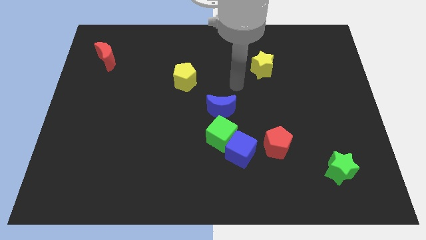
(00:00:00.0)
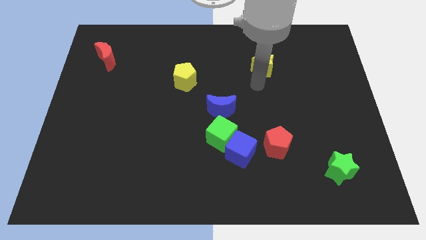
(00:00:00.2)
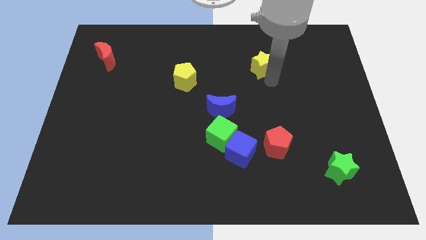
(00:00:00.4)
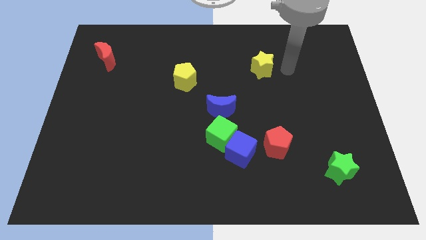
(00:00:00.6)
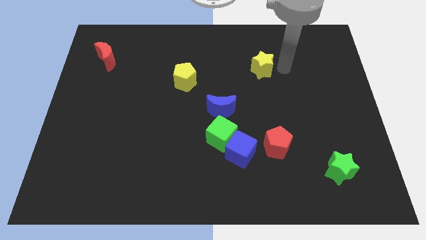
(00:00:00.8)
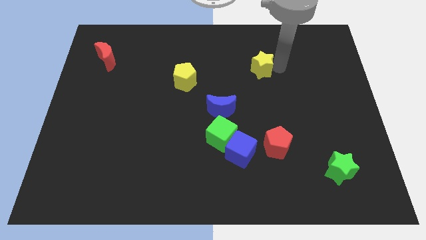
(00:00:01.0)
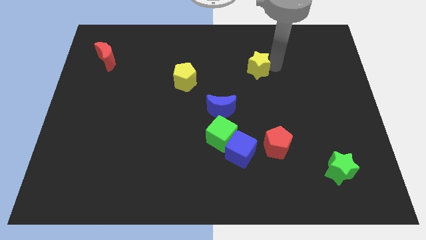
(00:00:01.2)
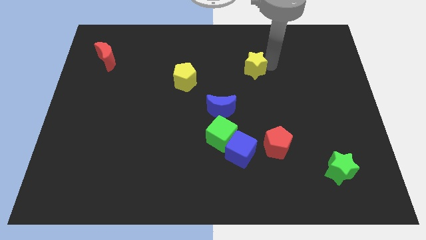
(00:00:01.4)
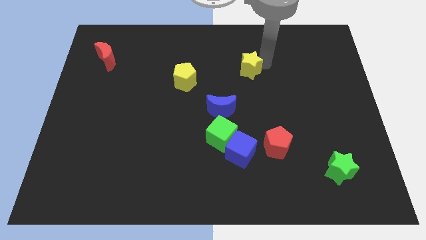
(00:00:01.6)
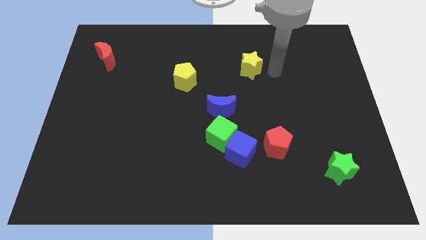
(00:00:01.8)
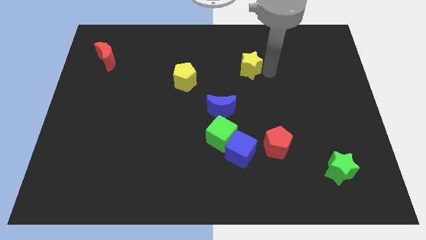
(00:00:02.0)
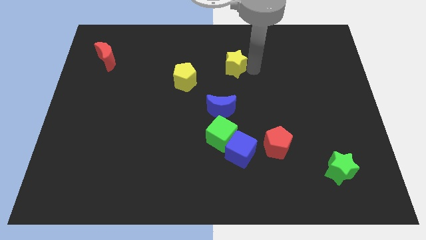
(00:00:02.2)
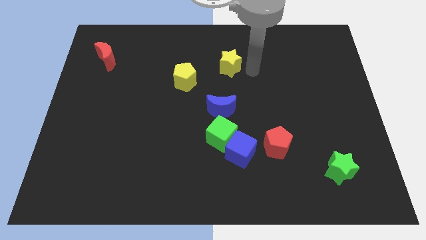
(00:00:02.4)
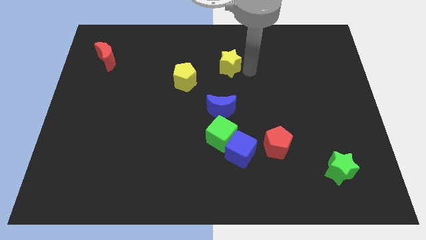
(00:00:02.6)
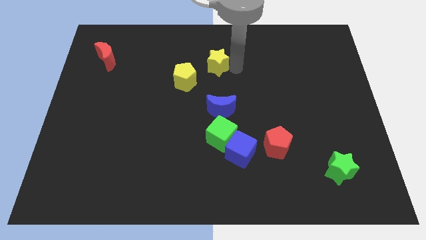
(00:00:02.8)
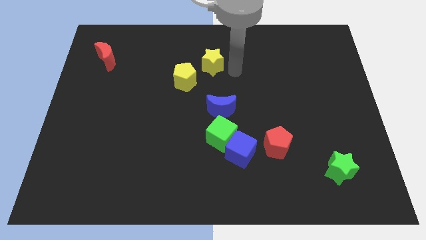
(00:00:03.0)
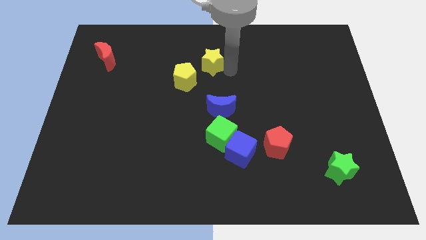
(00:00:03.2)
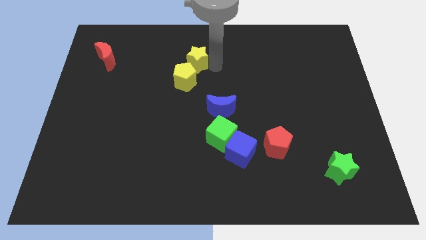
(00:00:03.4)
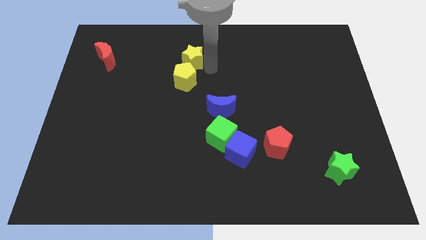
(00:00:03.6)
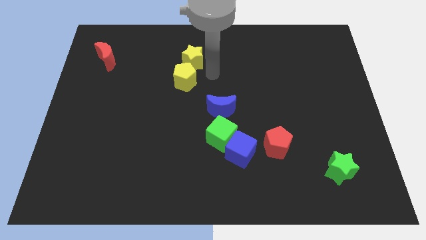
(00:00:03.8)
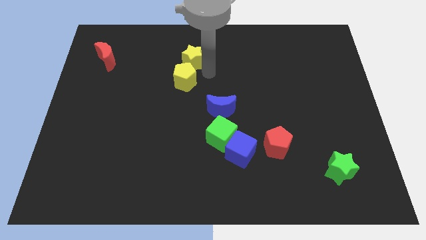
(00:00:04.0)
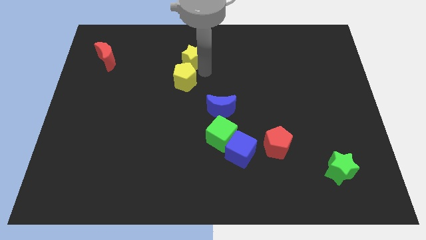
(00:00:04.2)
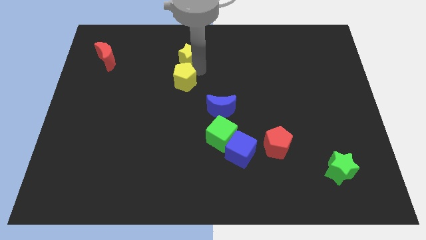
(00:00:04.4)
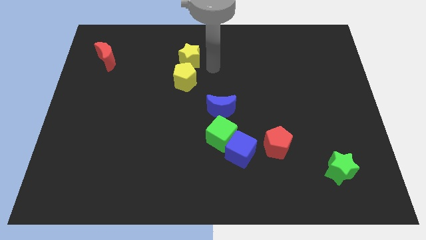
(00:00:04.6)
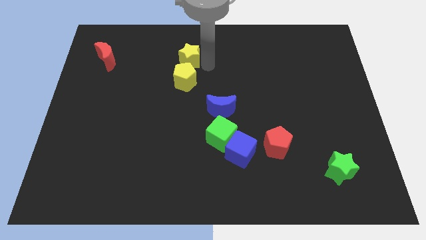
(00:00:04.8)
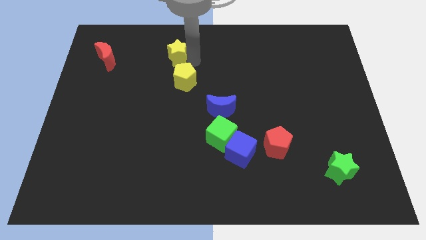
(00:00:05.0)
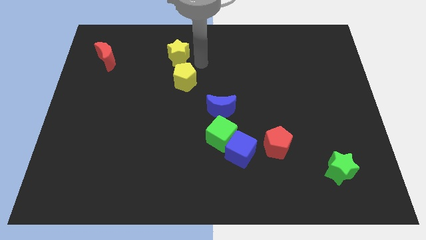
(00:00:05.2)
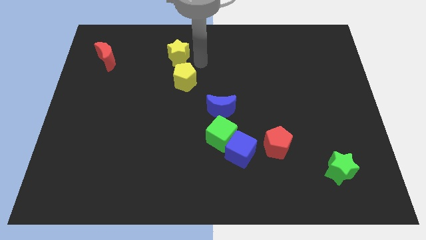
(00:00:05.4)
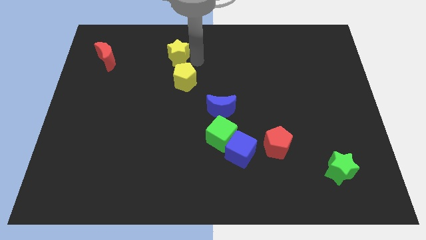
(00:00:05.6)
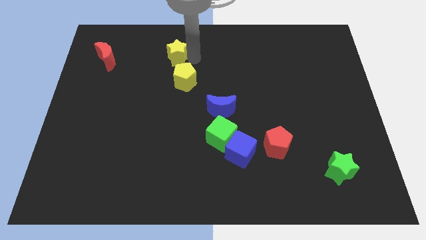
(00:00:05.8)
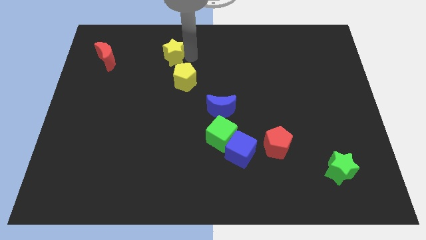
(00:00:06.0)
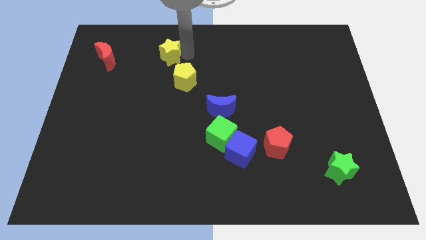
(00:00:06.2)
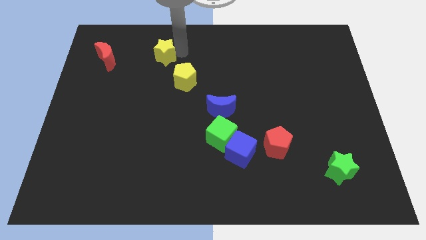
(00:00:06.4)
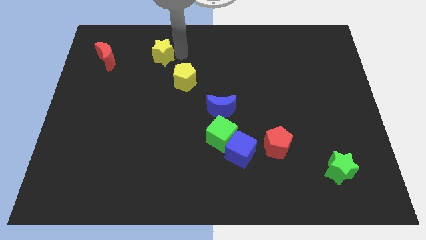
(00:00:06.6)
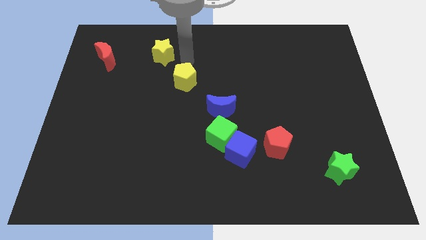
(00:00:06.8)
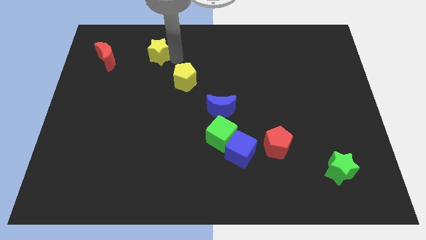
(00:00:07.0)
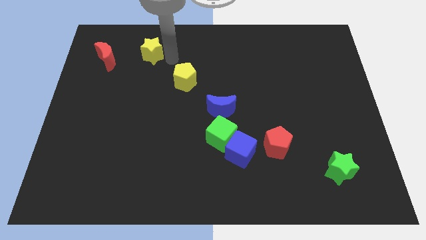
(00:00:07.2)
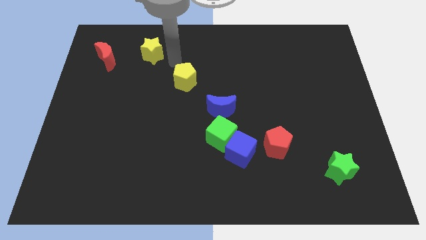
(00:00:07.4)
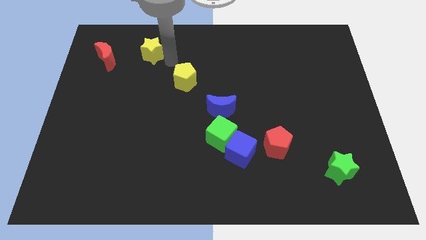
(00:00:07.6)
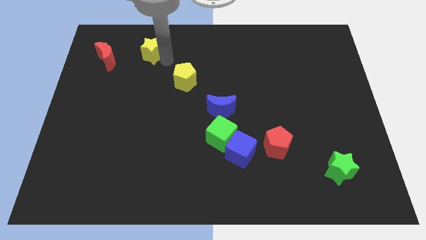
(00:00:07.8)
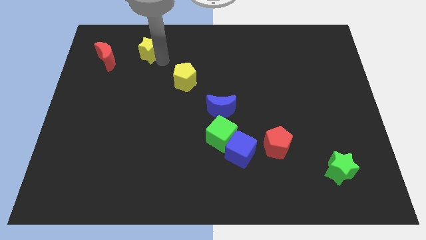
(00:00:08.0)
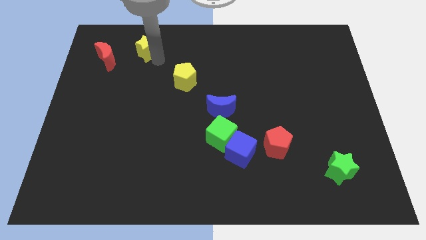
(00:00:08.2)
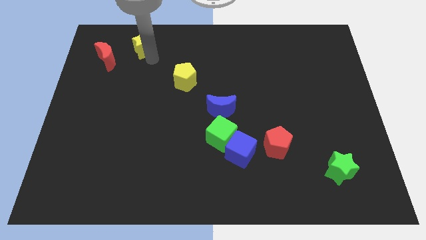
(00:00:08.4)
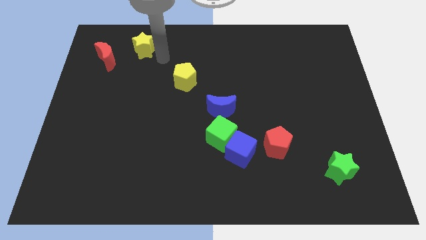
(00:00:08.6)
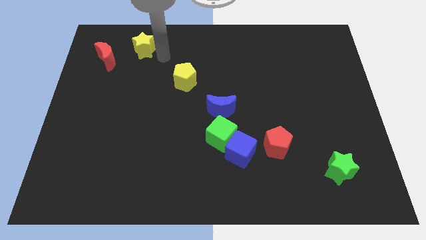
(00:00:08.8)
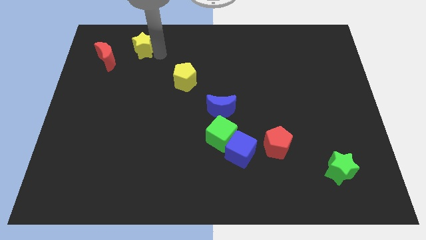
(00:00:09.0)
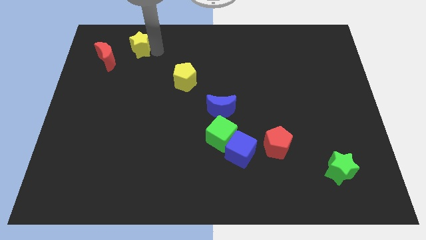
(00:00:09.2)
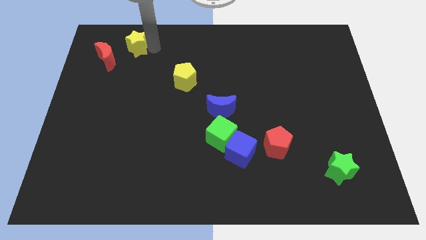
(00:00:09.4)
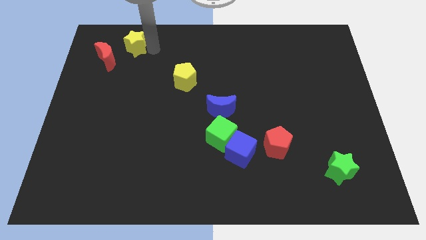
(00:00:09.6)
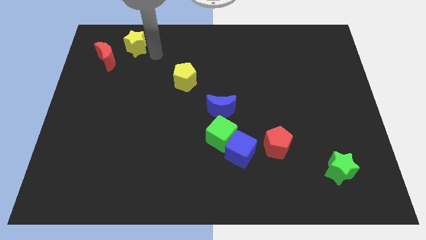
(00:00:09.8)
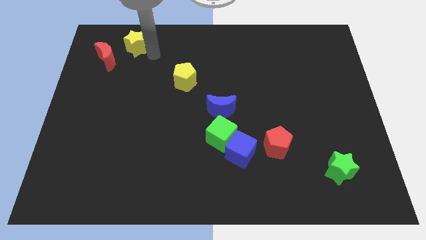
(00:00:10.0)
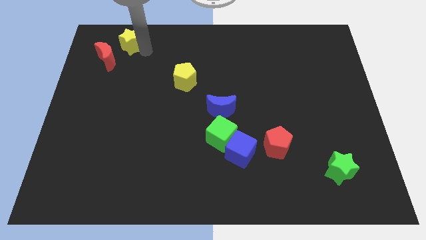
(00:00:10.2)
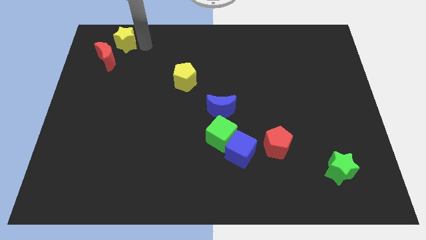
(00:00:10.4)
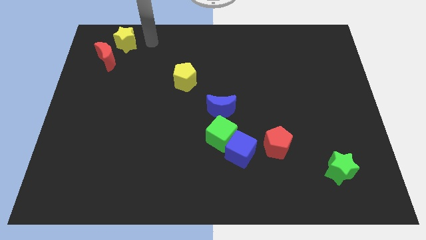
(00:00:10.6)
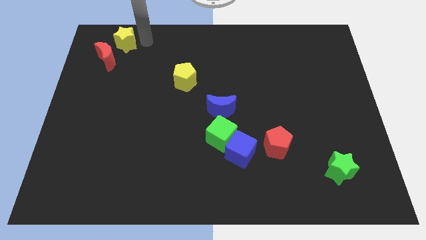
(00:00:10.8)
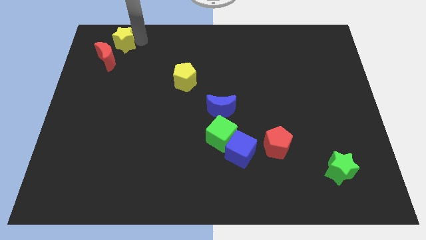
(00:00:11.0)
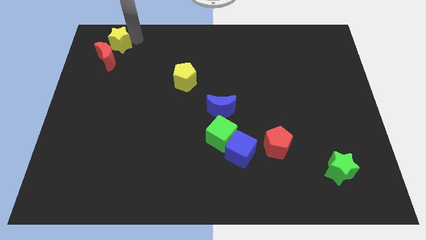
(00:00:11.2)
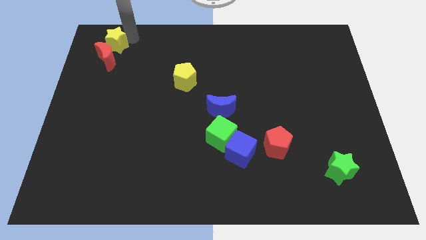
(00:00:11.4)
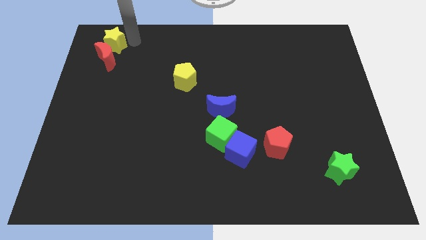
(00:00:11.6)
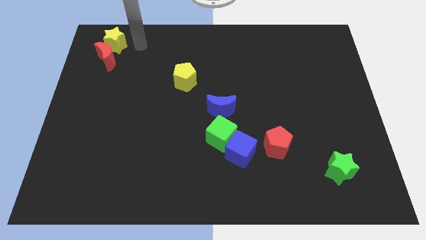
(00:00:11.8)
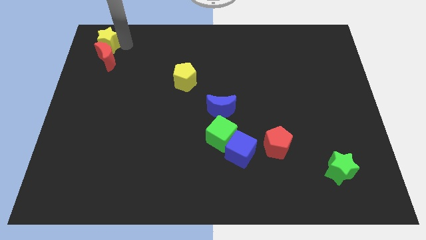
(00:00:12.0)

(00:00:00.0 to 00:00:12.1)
slide the yellow star to the upper left corner

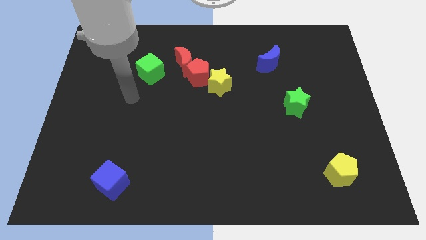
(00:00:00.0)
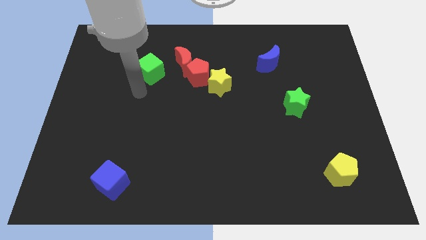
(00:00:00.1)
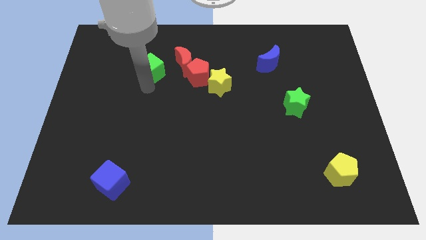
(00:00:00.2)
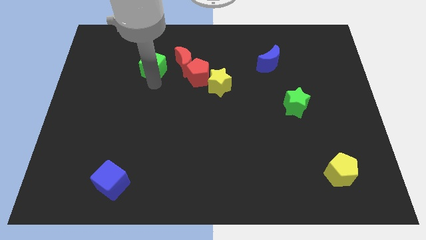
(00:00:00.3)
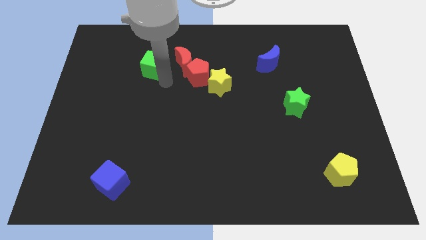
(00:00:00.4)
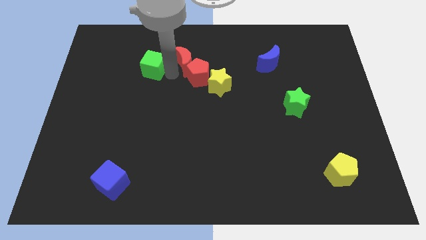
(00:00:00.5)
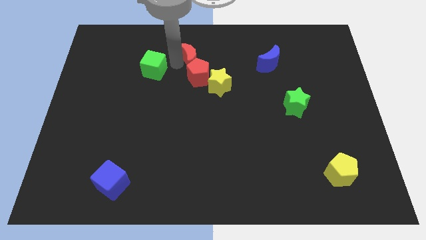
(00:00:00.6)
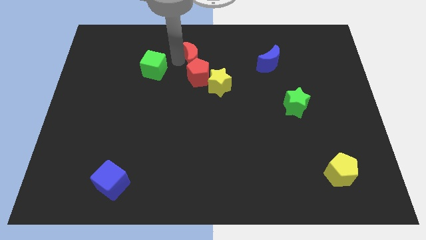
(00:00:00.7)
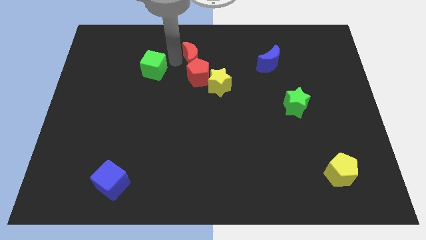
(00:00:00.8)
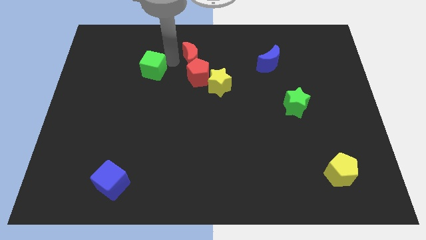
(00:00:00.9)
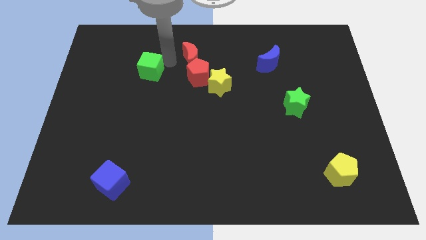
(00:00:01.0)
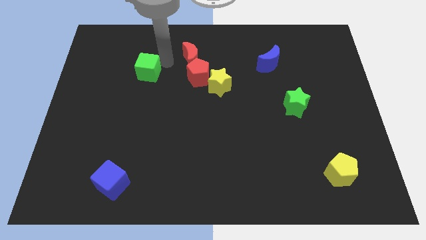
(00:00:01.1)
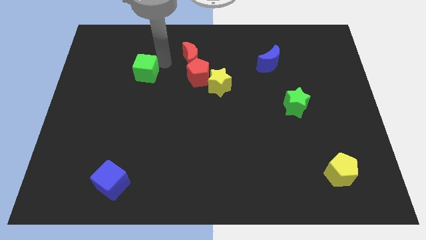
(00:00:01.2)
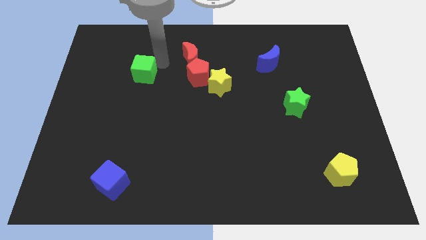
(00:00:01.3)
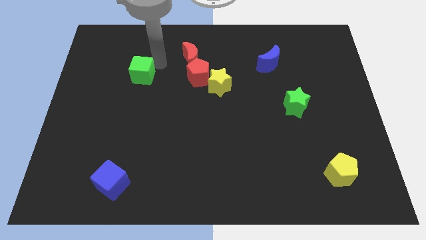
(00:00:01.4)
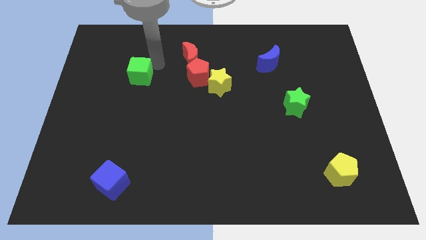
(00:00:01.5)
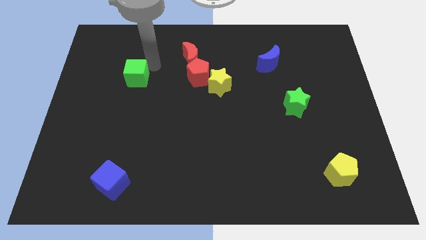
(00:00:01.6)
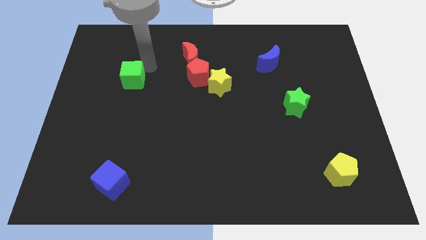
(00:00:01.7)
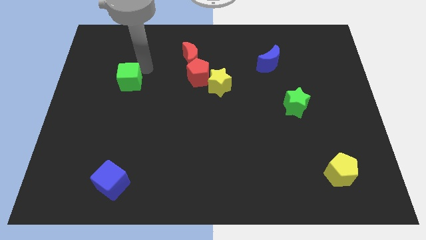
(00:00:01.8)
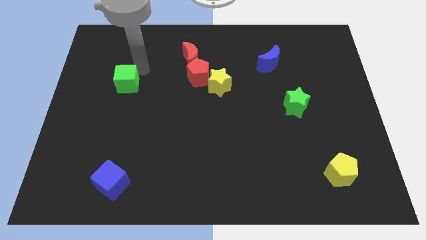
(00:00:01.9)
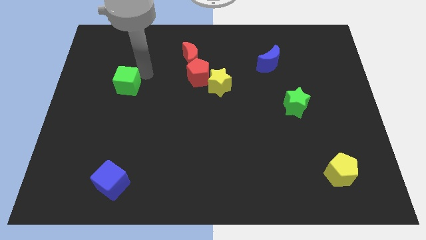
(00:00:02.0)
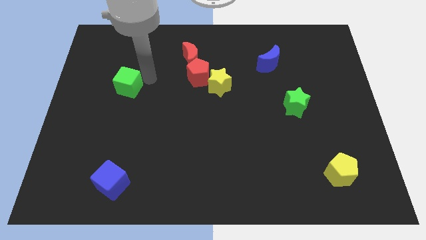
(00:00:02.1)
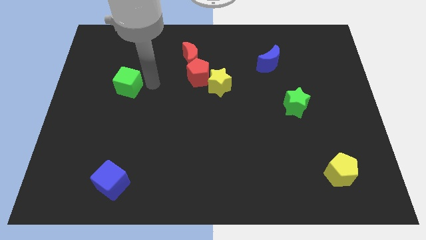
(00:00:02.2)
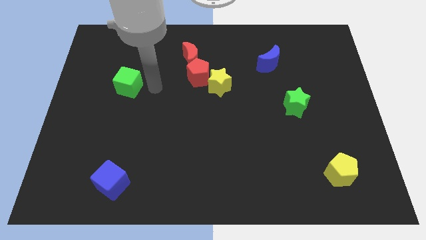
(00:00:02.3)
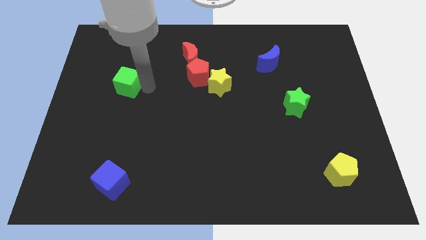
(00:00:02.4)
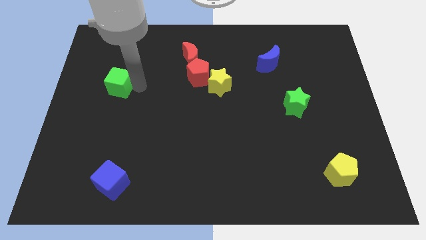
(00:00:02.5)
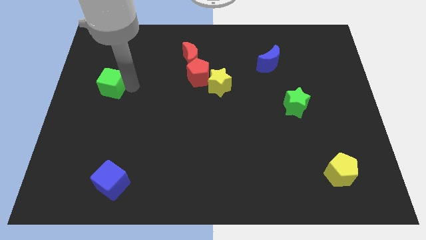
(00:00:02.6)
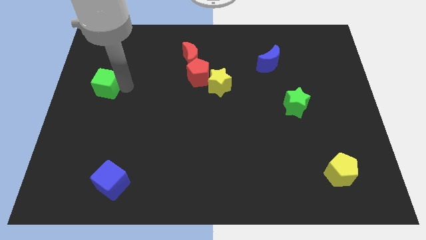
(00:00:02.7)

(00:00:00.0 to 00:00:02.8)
push the green cube to the left side
